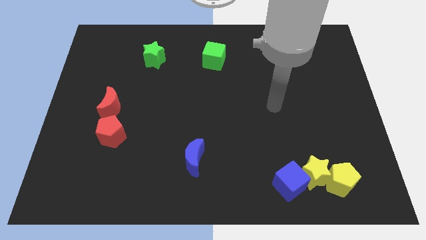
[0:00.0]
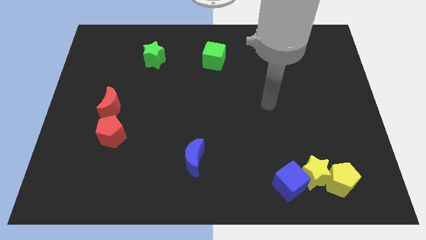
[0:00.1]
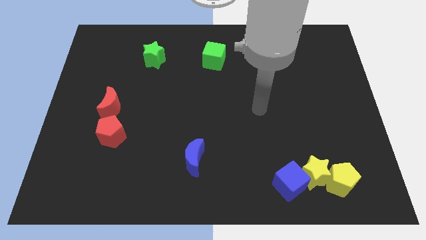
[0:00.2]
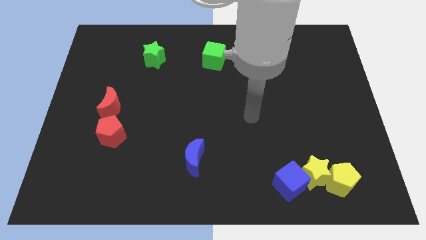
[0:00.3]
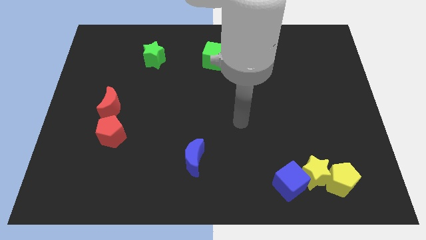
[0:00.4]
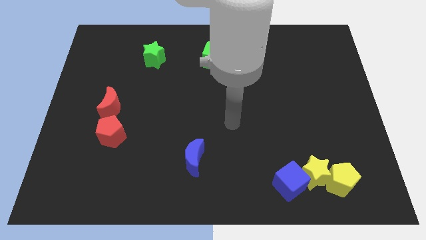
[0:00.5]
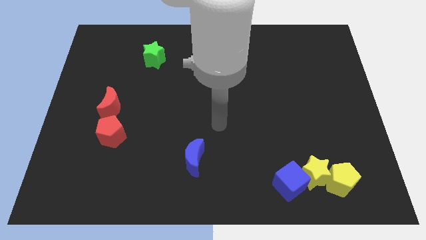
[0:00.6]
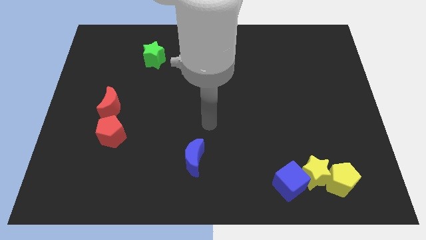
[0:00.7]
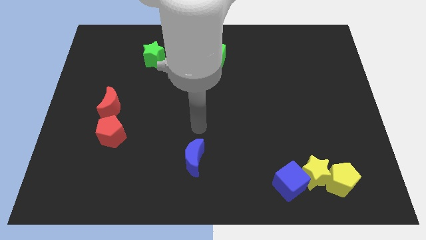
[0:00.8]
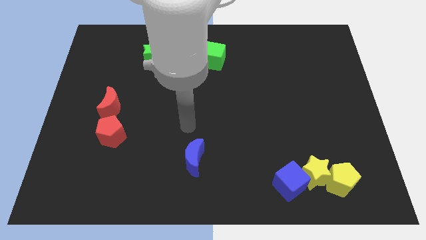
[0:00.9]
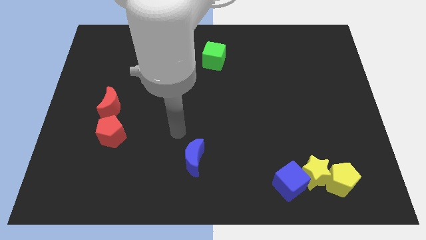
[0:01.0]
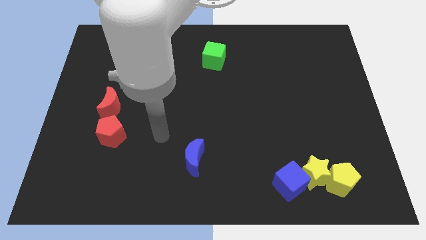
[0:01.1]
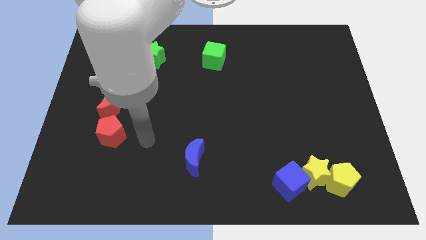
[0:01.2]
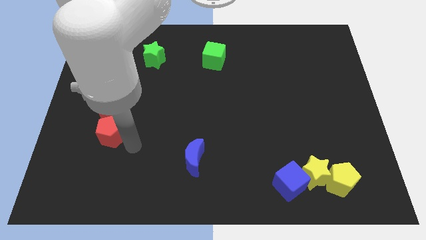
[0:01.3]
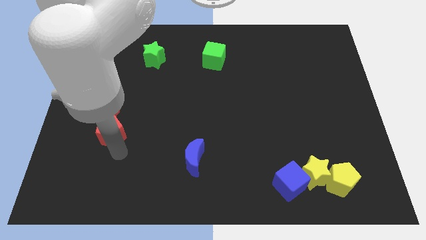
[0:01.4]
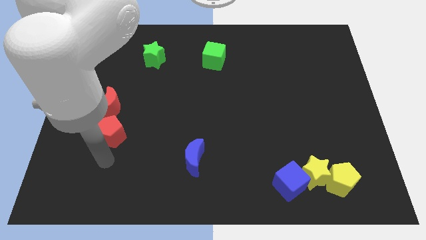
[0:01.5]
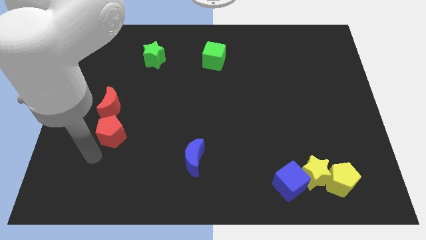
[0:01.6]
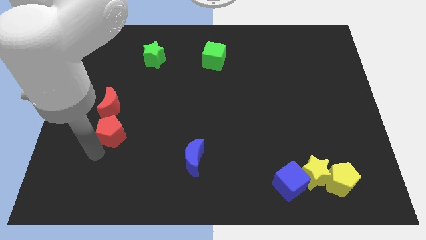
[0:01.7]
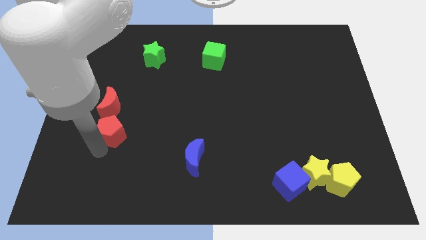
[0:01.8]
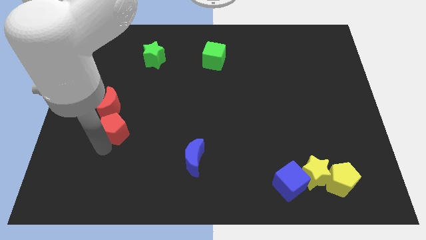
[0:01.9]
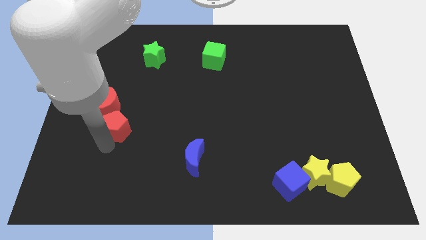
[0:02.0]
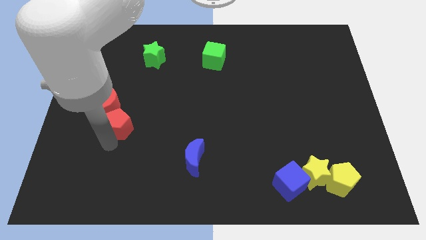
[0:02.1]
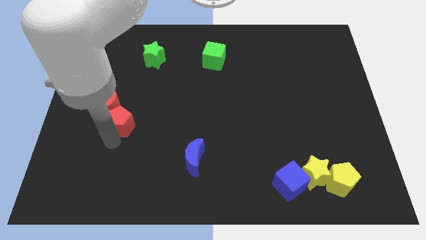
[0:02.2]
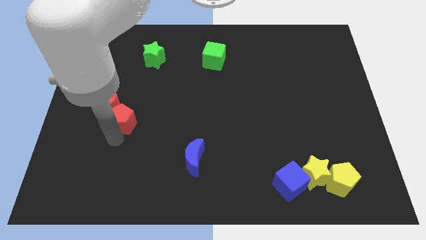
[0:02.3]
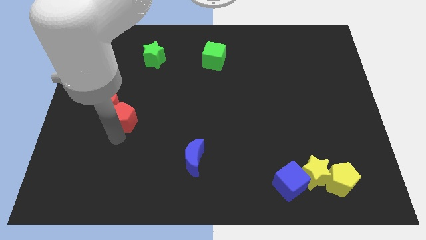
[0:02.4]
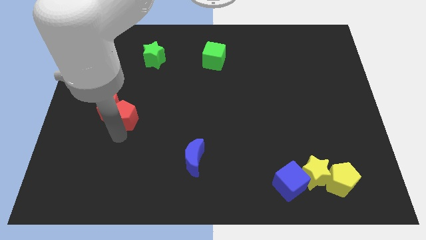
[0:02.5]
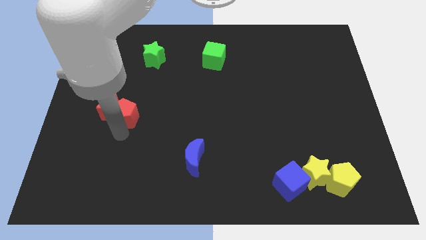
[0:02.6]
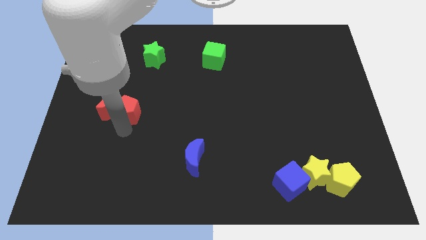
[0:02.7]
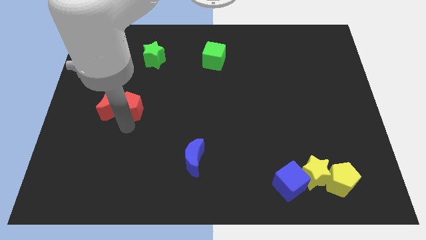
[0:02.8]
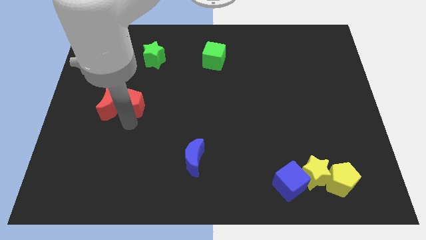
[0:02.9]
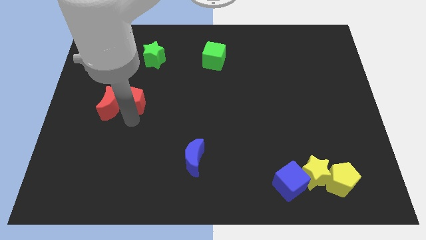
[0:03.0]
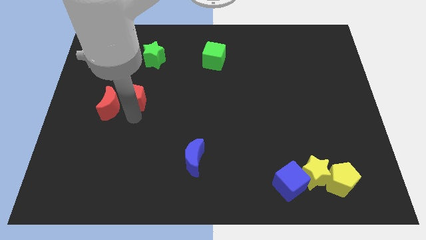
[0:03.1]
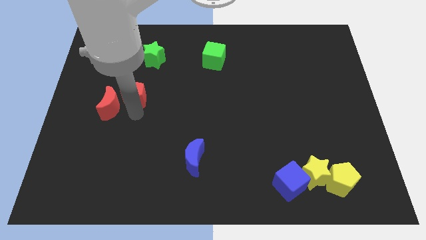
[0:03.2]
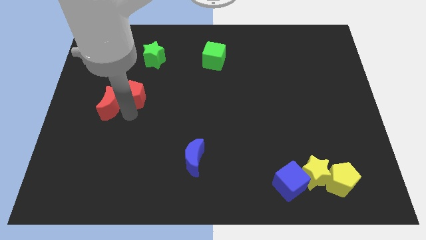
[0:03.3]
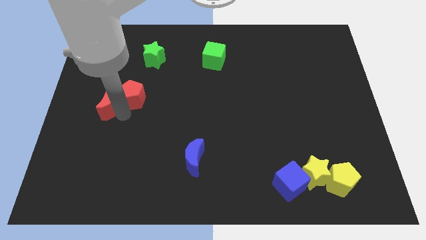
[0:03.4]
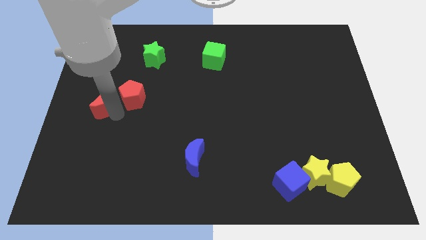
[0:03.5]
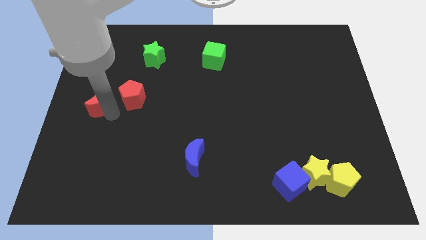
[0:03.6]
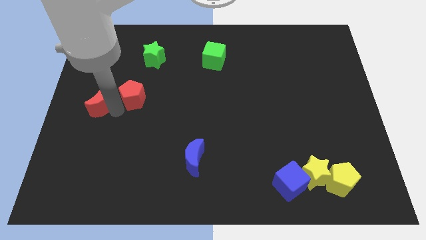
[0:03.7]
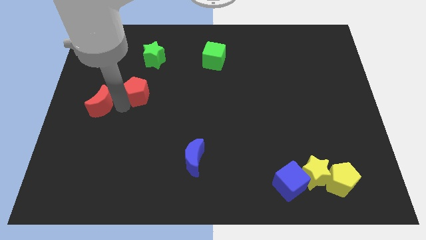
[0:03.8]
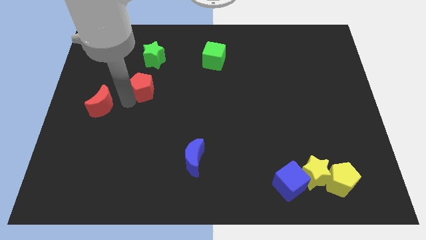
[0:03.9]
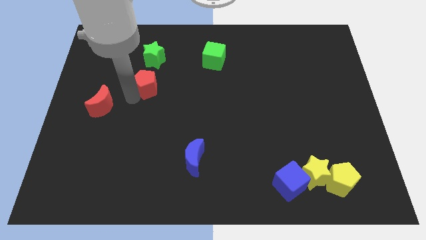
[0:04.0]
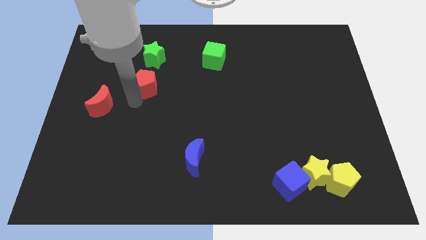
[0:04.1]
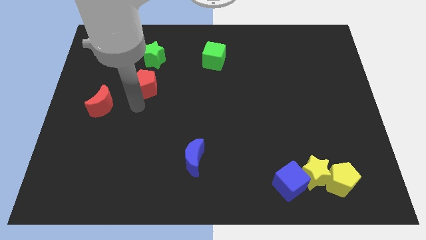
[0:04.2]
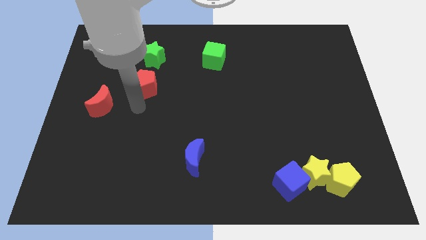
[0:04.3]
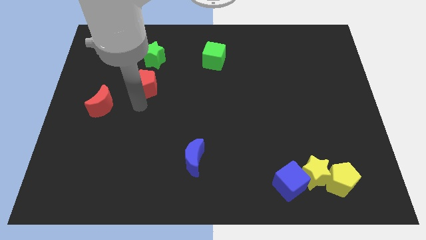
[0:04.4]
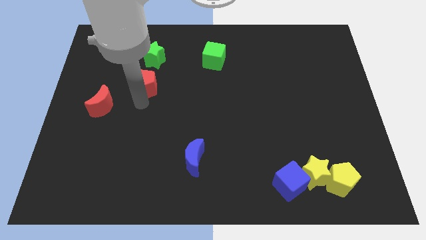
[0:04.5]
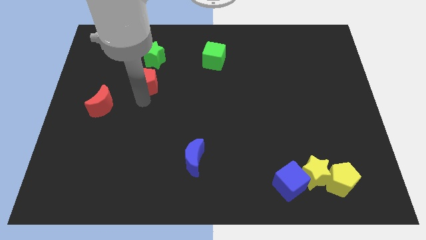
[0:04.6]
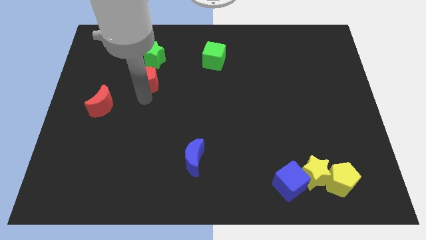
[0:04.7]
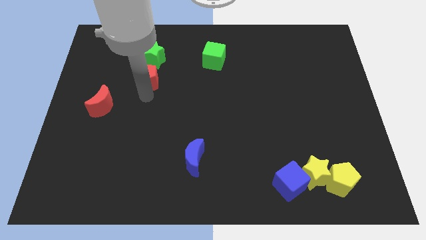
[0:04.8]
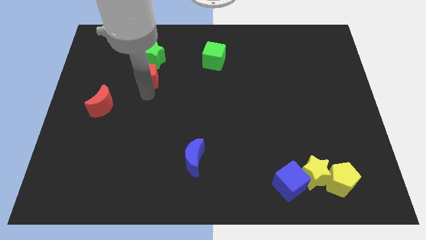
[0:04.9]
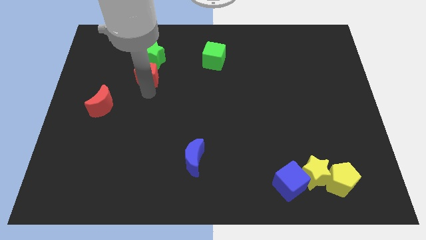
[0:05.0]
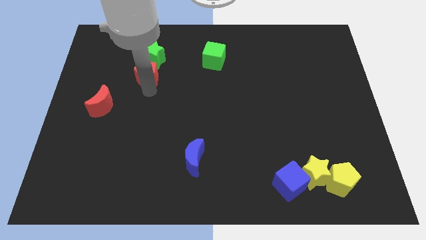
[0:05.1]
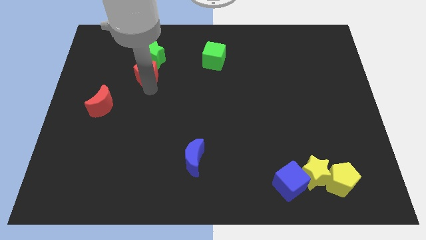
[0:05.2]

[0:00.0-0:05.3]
put the red pentagon next to the green star

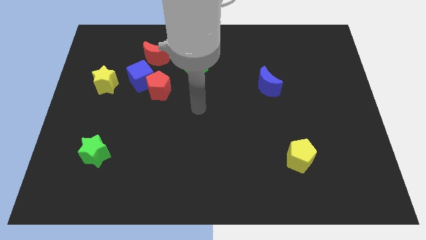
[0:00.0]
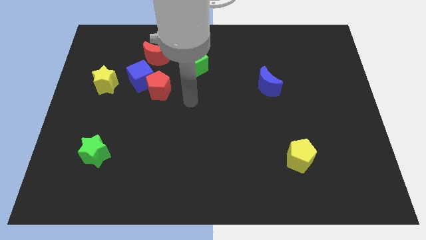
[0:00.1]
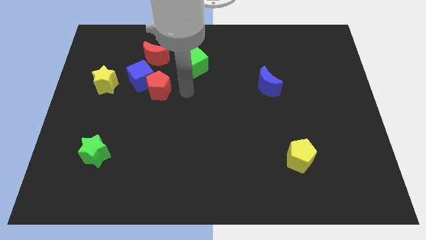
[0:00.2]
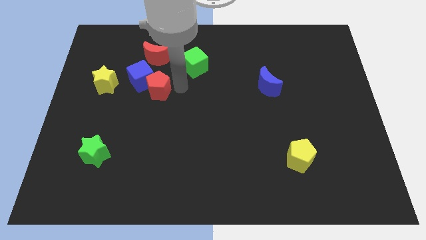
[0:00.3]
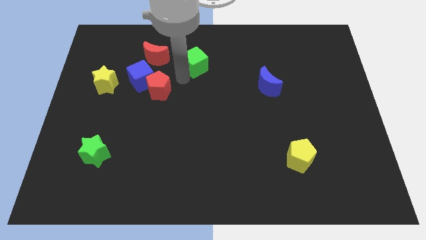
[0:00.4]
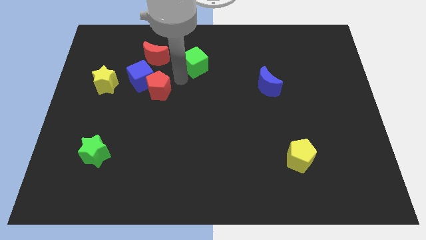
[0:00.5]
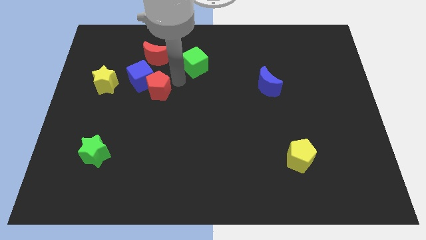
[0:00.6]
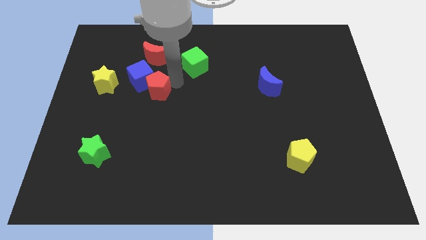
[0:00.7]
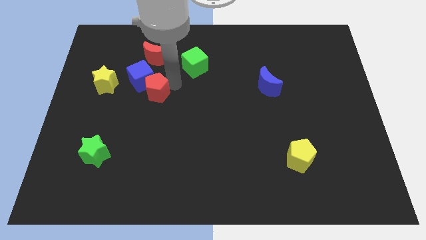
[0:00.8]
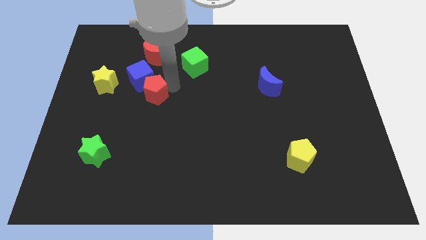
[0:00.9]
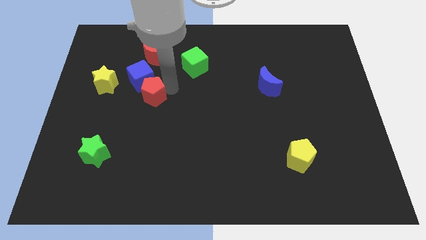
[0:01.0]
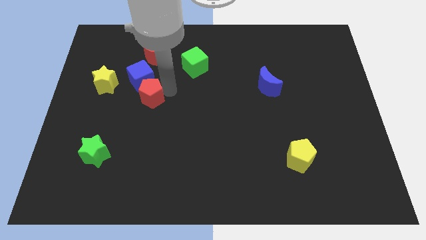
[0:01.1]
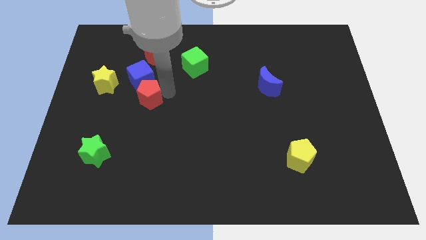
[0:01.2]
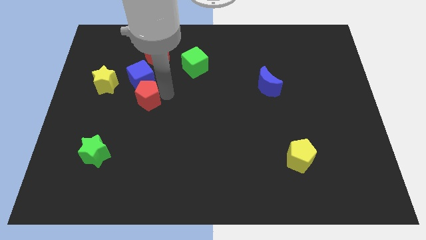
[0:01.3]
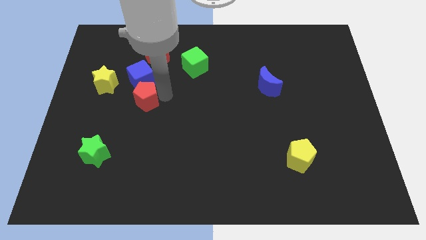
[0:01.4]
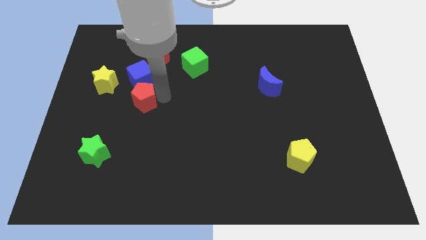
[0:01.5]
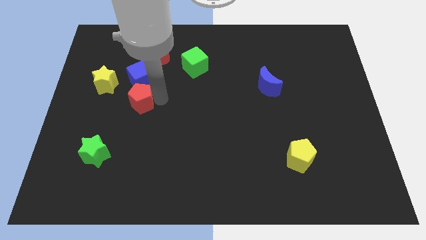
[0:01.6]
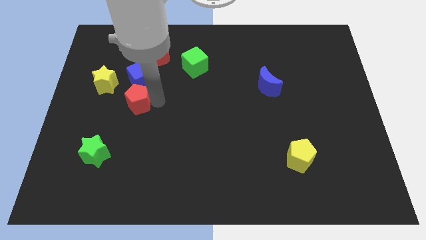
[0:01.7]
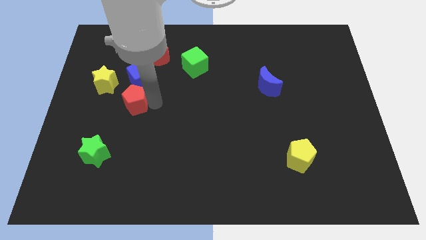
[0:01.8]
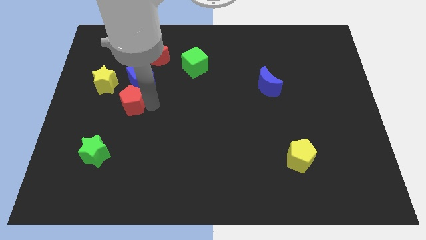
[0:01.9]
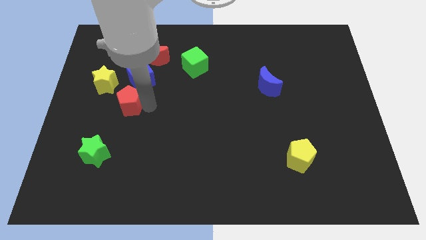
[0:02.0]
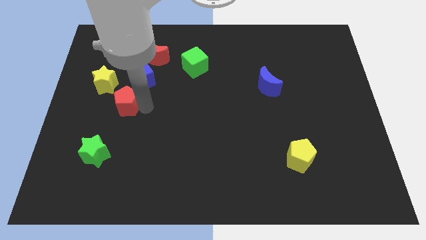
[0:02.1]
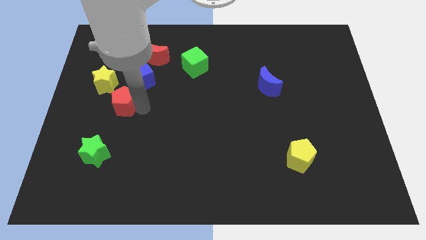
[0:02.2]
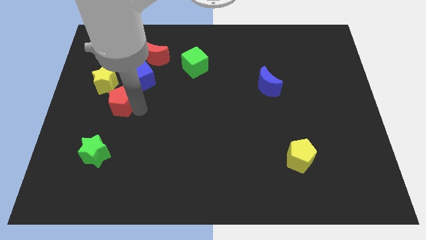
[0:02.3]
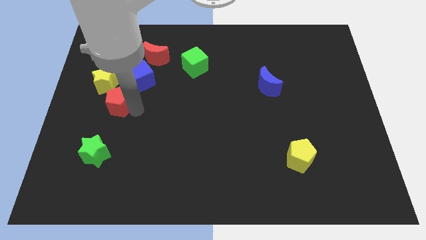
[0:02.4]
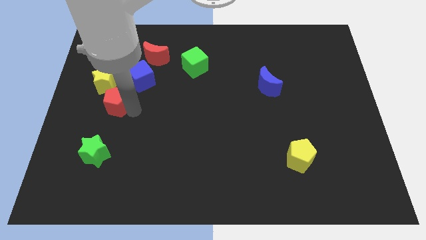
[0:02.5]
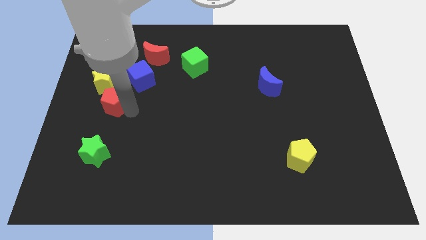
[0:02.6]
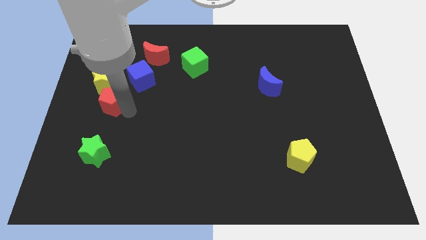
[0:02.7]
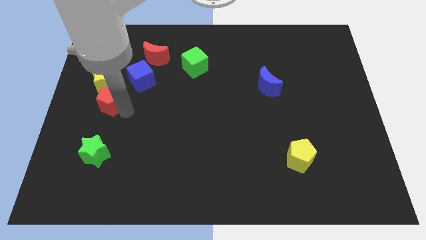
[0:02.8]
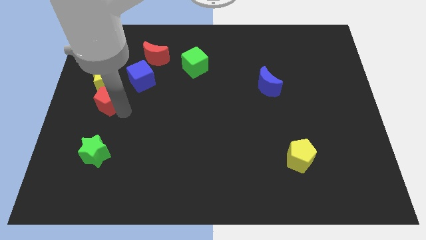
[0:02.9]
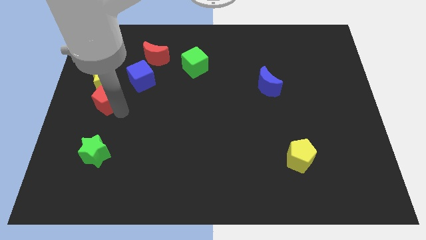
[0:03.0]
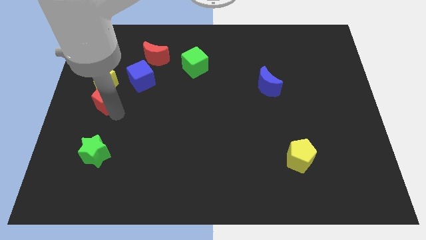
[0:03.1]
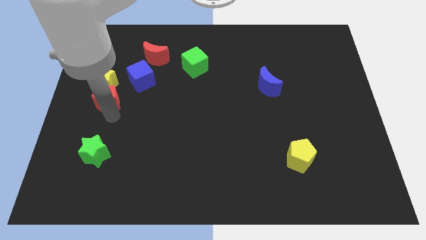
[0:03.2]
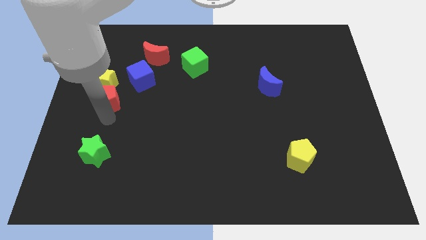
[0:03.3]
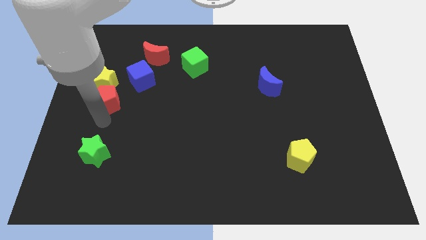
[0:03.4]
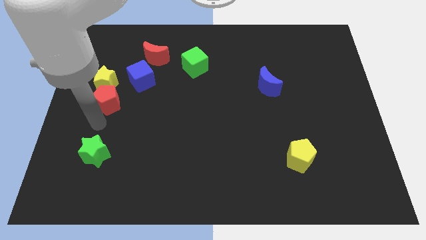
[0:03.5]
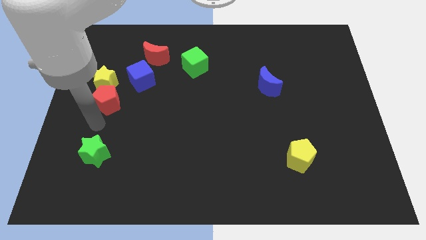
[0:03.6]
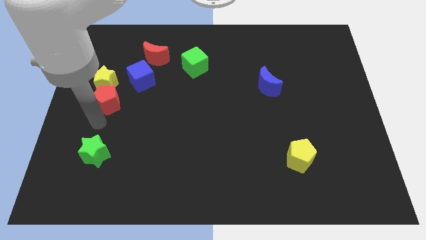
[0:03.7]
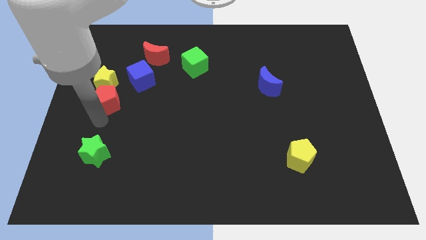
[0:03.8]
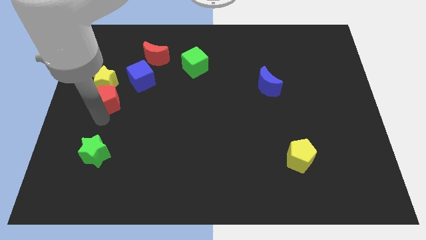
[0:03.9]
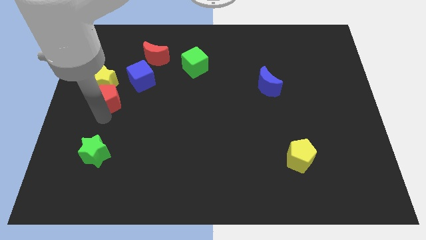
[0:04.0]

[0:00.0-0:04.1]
move the red pentagon towards the yellow star
